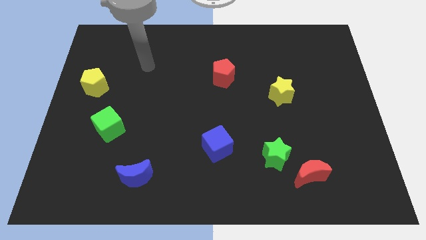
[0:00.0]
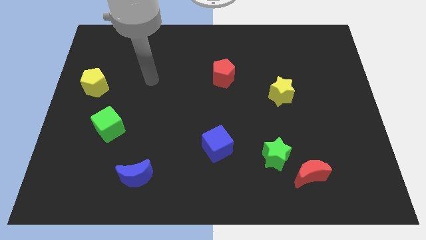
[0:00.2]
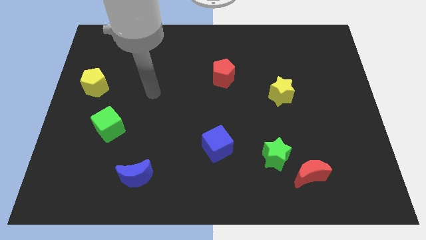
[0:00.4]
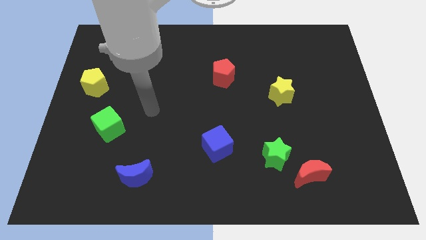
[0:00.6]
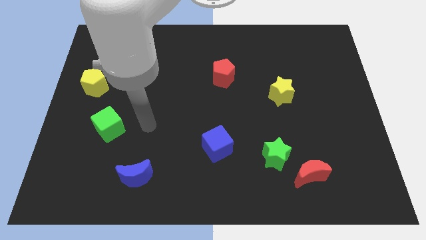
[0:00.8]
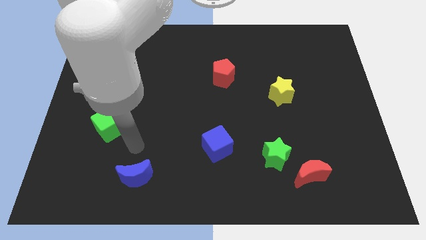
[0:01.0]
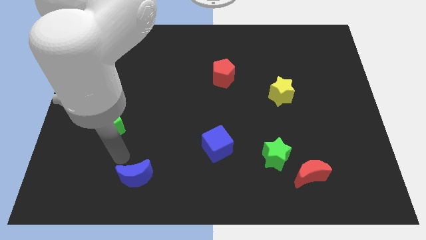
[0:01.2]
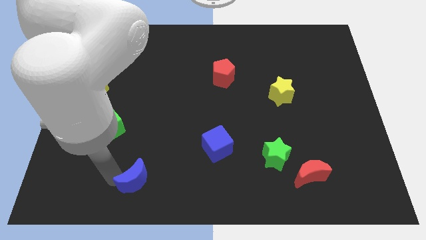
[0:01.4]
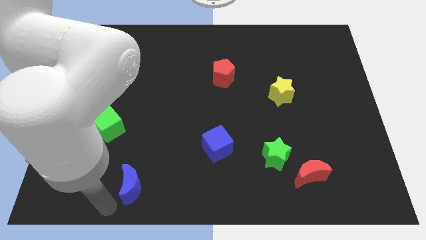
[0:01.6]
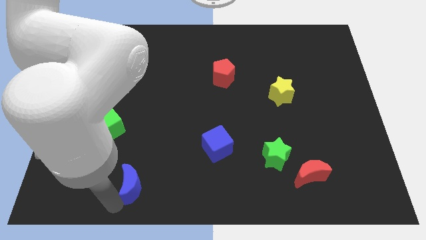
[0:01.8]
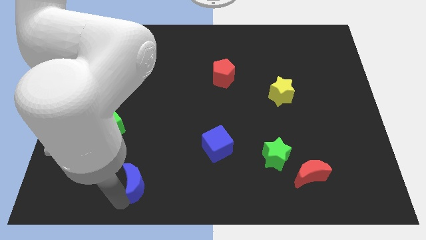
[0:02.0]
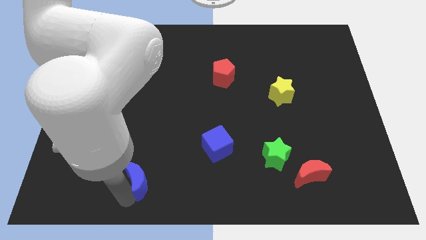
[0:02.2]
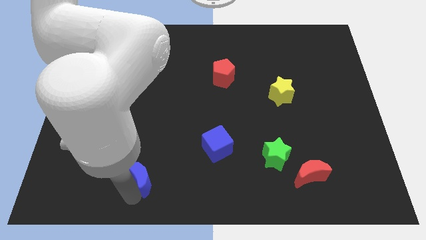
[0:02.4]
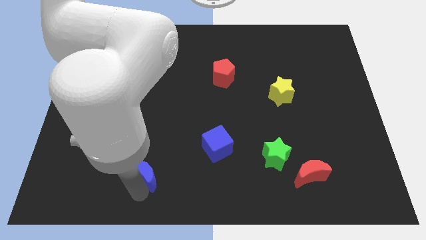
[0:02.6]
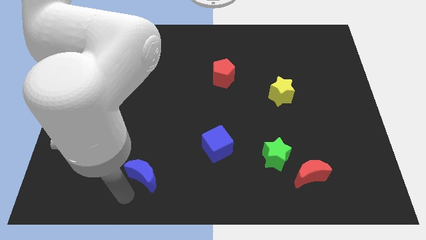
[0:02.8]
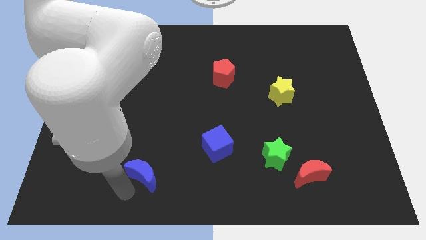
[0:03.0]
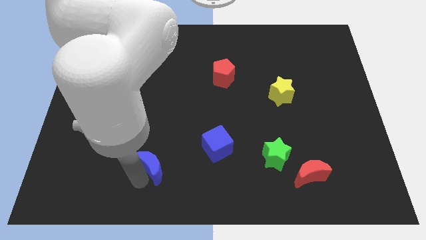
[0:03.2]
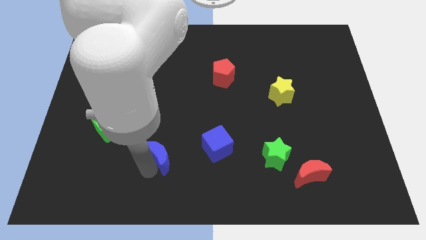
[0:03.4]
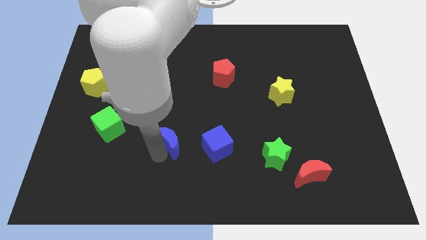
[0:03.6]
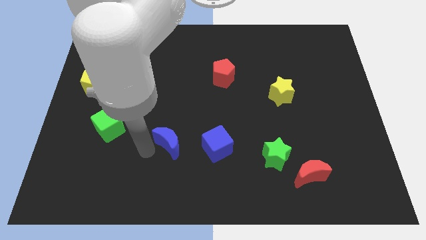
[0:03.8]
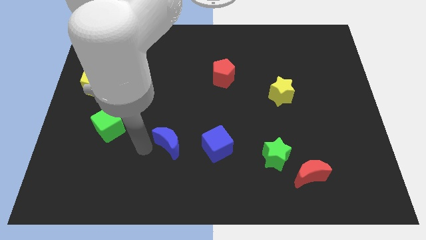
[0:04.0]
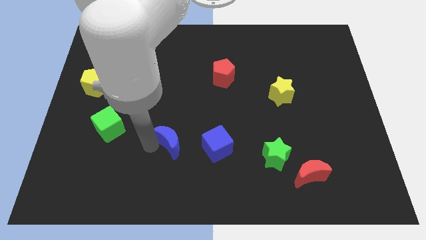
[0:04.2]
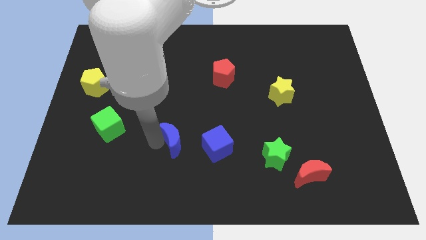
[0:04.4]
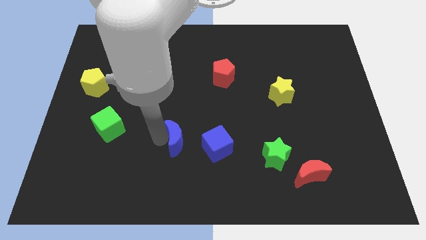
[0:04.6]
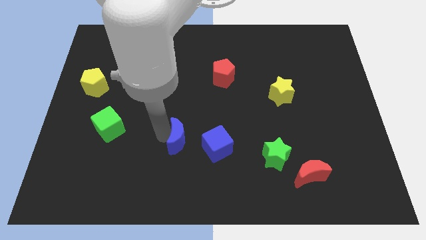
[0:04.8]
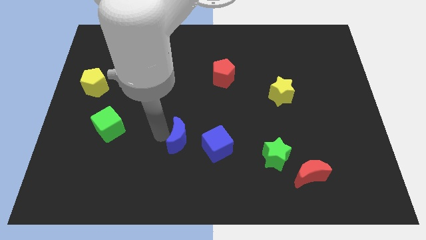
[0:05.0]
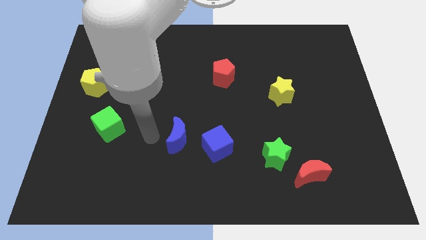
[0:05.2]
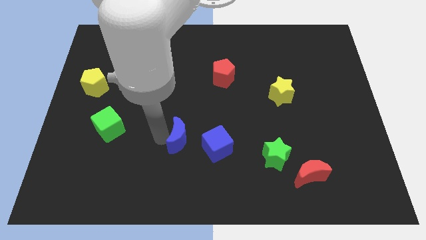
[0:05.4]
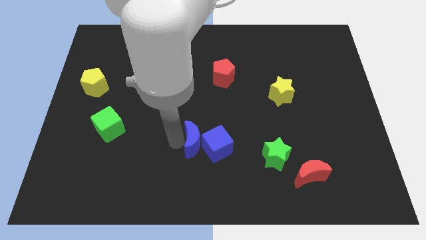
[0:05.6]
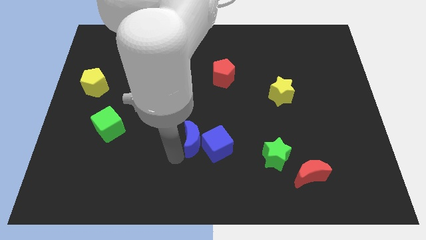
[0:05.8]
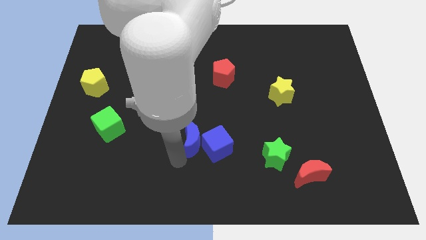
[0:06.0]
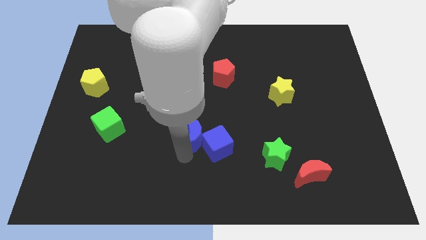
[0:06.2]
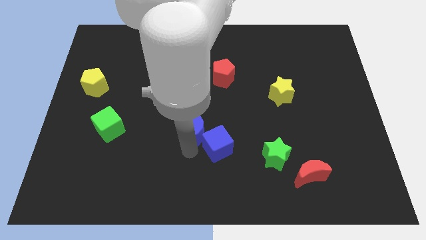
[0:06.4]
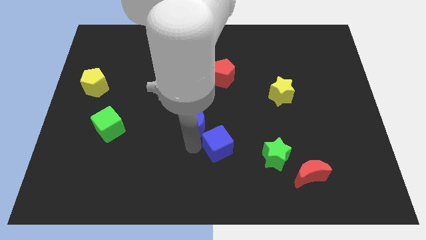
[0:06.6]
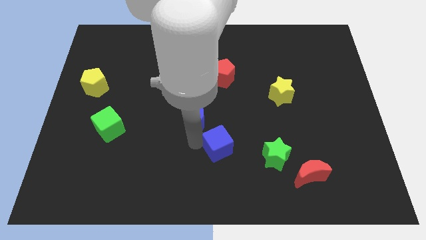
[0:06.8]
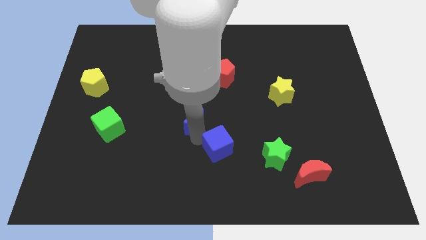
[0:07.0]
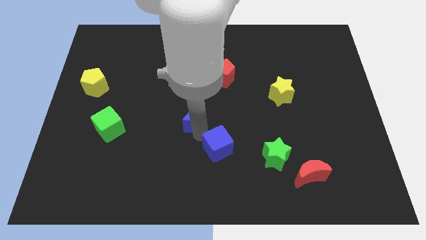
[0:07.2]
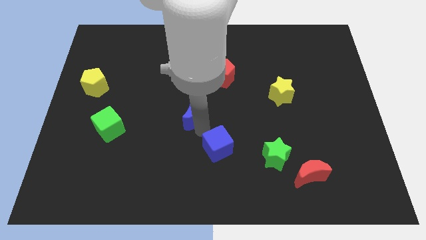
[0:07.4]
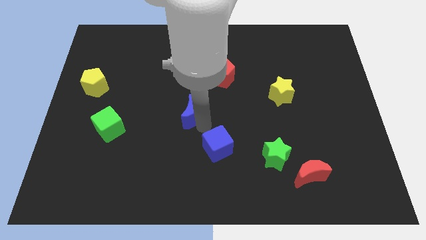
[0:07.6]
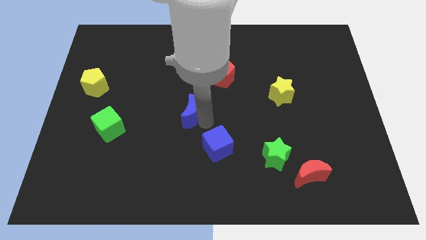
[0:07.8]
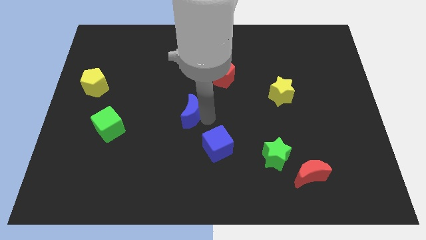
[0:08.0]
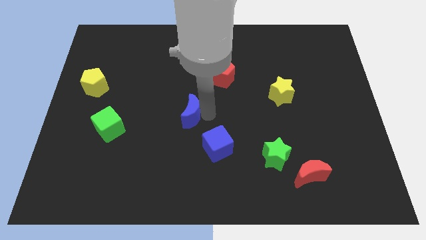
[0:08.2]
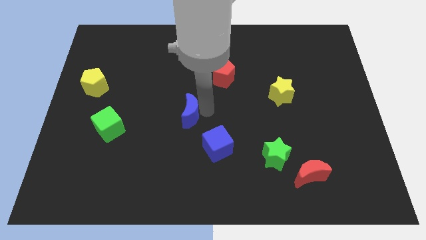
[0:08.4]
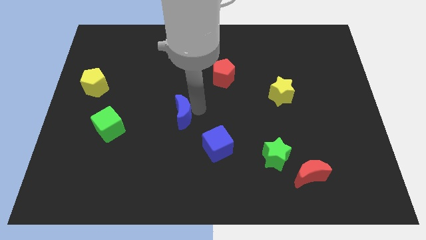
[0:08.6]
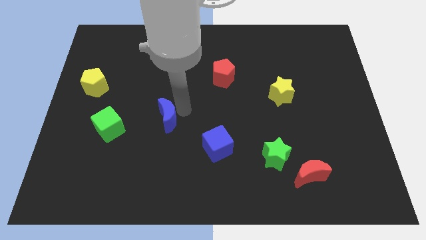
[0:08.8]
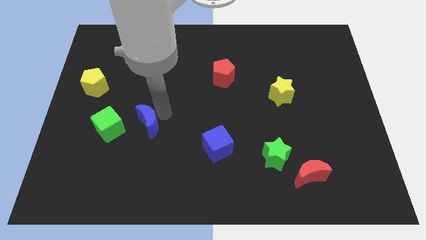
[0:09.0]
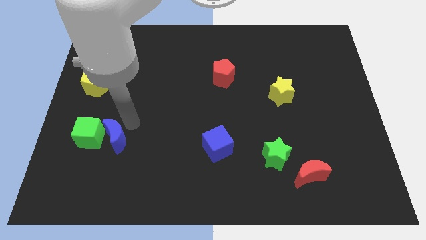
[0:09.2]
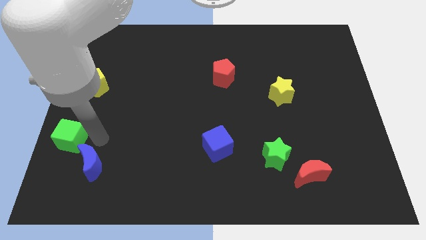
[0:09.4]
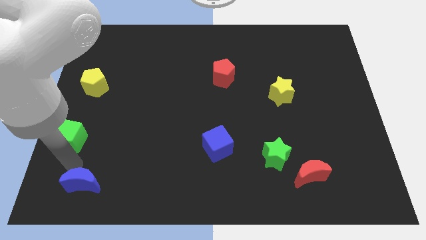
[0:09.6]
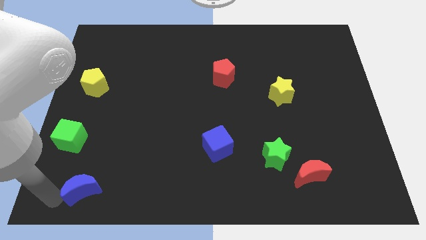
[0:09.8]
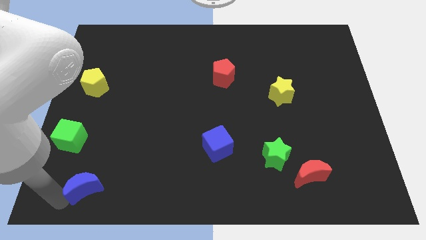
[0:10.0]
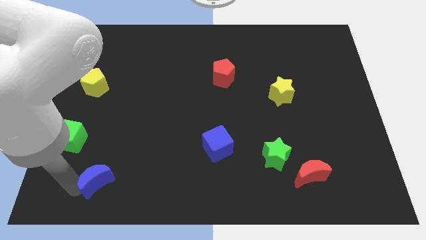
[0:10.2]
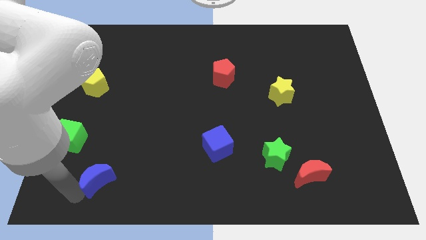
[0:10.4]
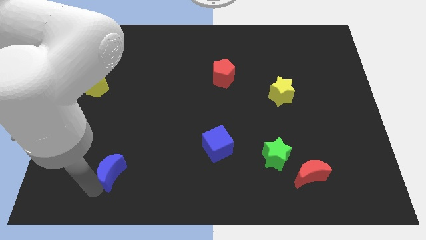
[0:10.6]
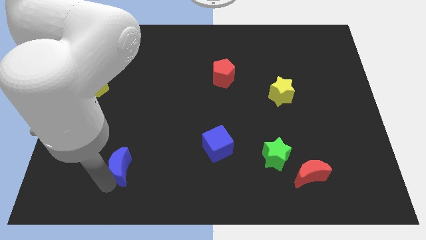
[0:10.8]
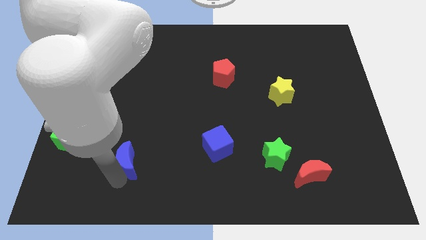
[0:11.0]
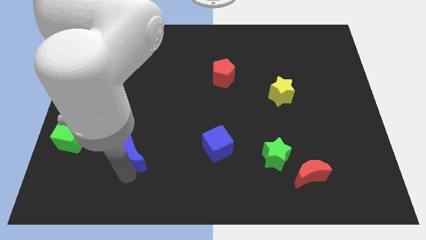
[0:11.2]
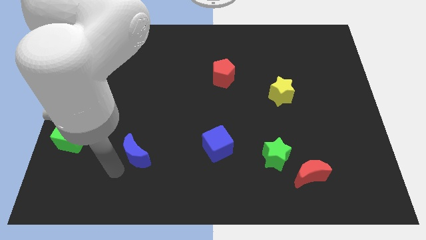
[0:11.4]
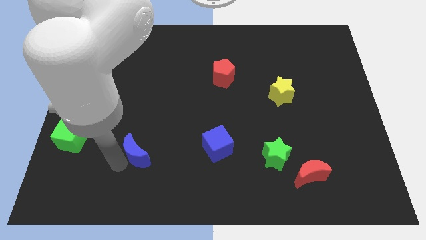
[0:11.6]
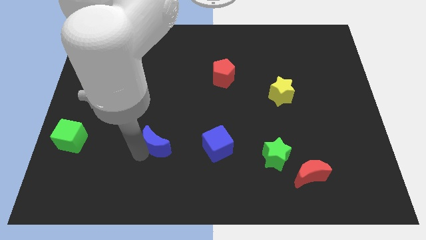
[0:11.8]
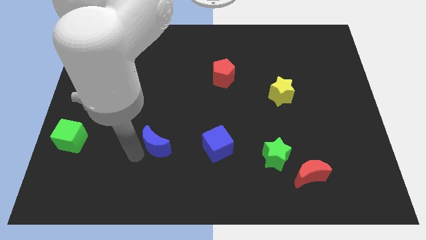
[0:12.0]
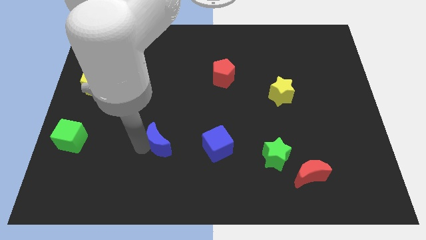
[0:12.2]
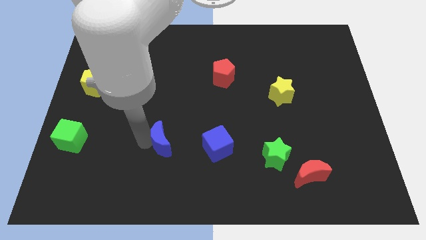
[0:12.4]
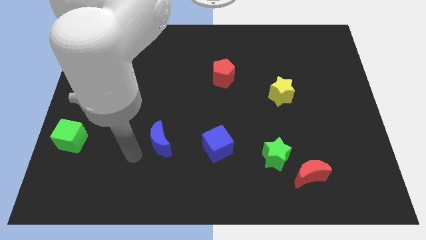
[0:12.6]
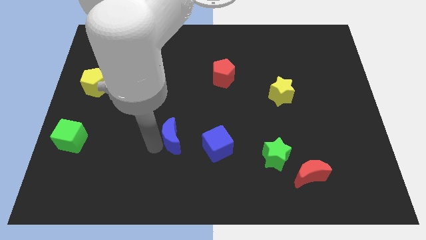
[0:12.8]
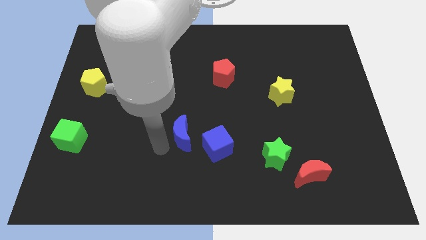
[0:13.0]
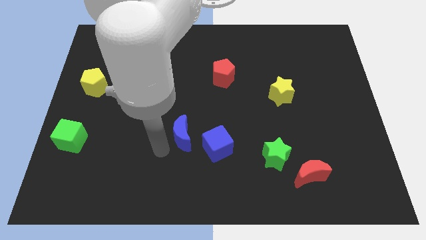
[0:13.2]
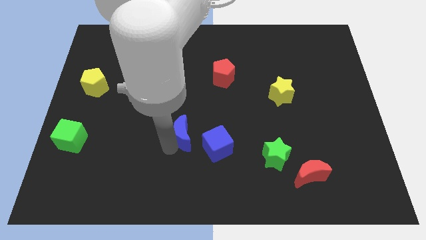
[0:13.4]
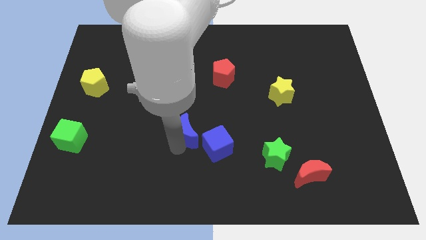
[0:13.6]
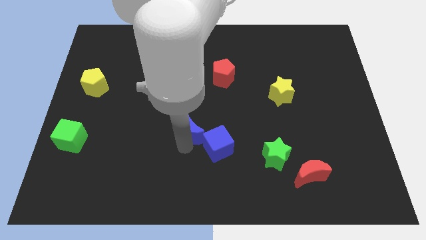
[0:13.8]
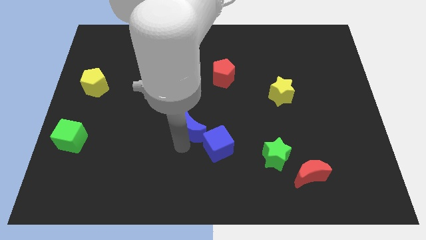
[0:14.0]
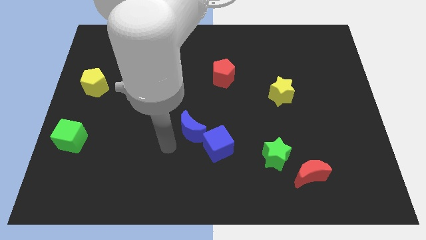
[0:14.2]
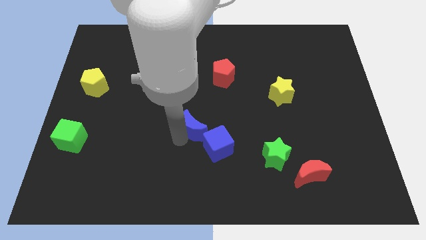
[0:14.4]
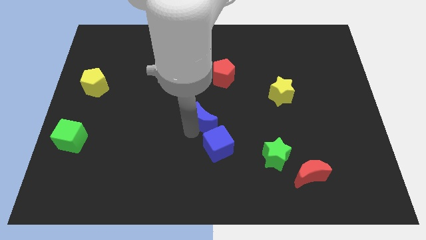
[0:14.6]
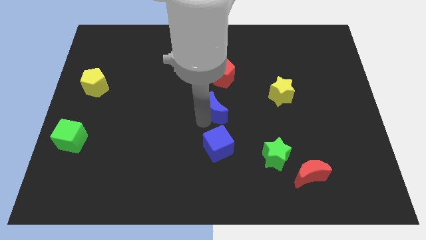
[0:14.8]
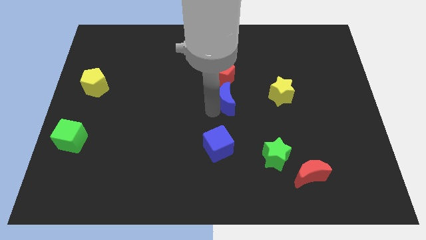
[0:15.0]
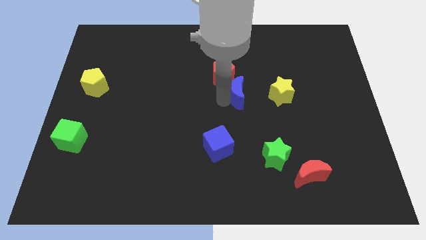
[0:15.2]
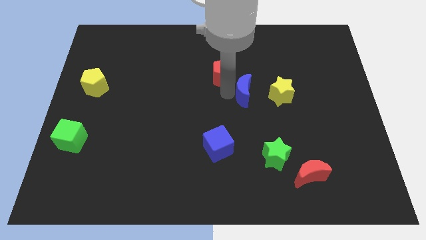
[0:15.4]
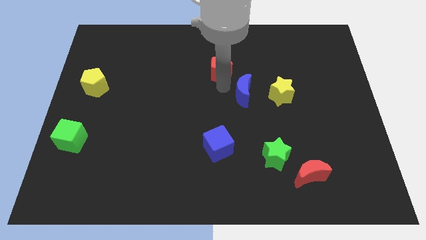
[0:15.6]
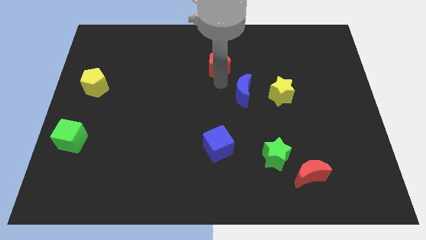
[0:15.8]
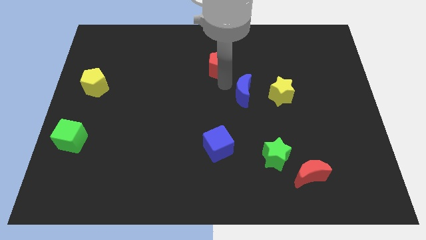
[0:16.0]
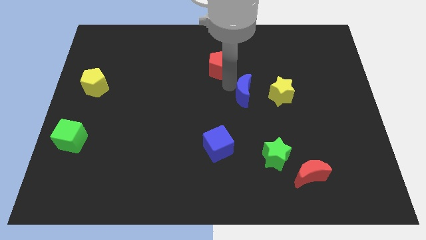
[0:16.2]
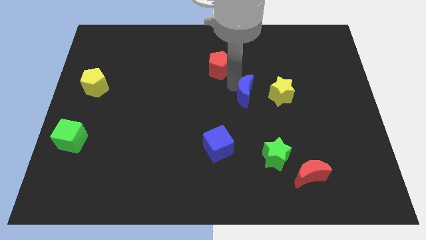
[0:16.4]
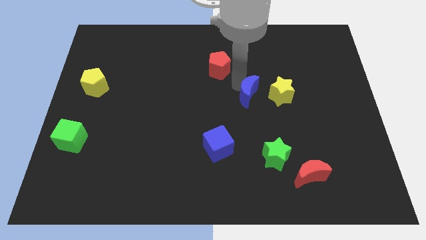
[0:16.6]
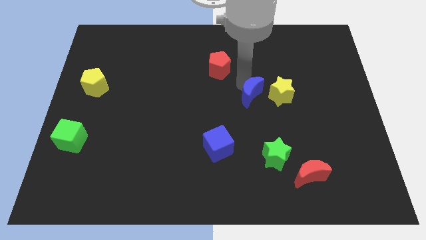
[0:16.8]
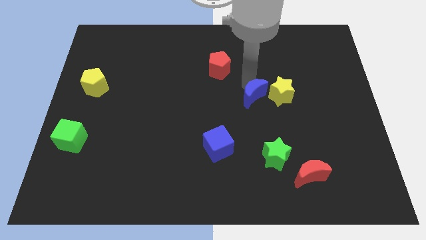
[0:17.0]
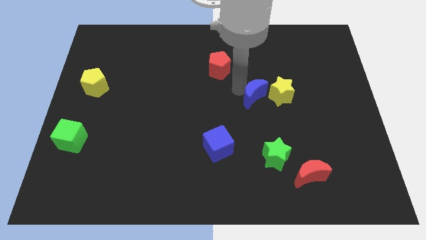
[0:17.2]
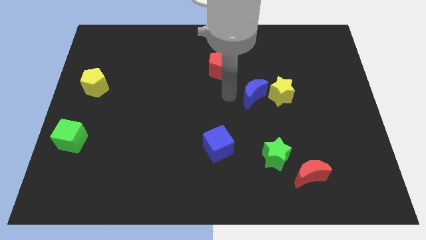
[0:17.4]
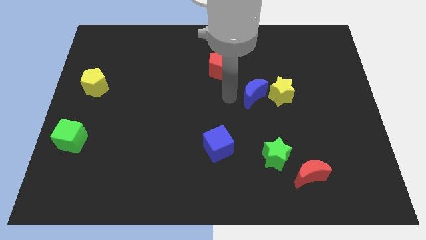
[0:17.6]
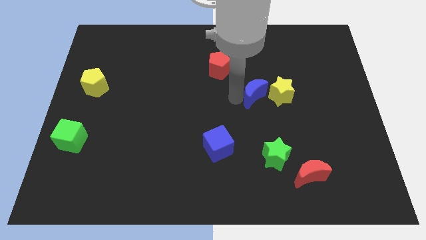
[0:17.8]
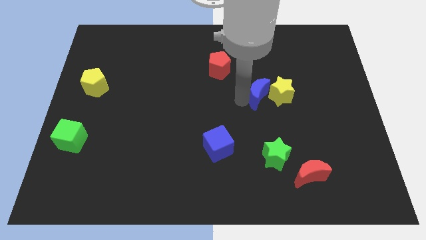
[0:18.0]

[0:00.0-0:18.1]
push the blue moon to the yellow star
